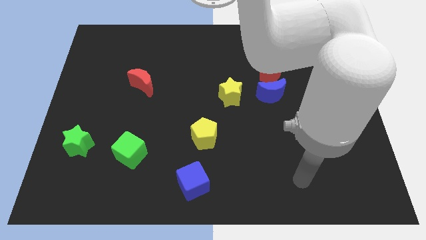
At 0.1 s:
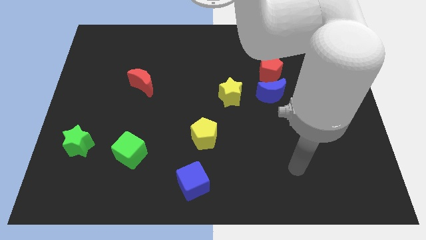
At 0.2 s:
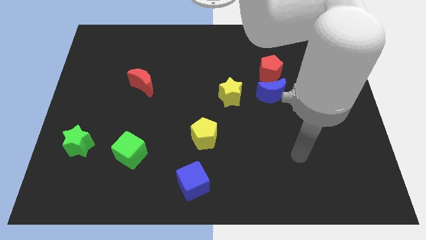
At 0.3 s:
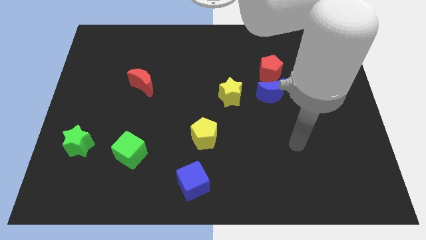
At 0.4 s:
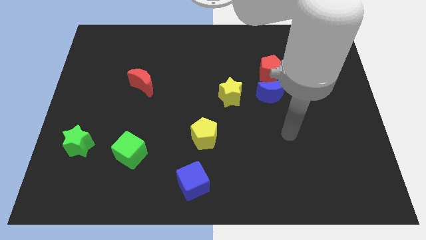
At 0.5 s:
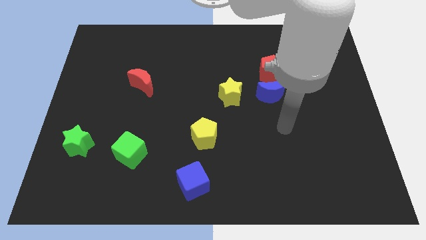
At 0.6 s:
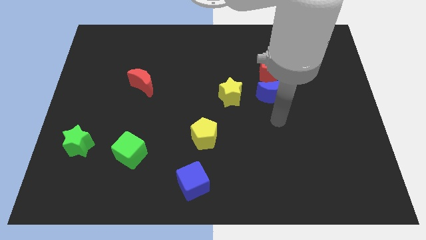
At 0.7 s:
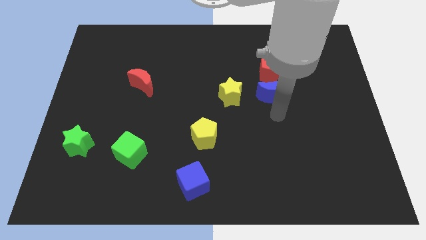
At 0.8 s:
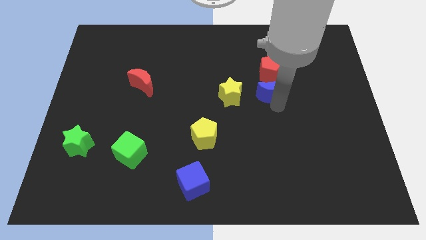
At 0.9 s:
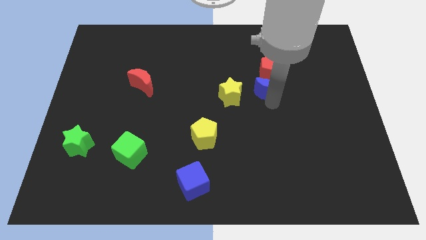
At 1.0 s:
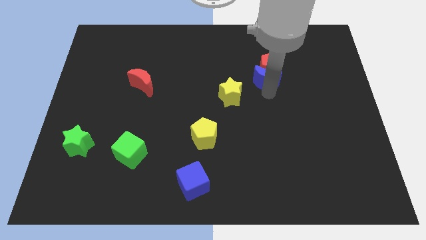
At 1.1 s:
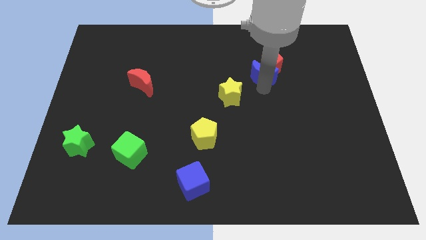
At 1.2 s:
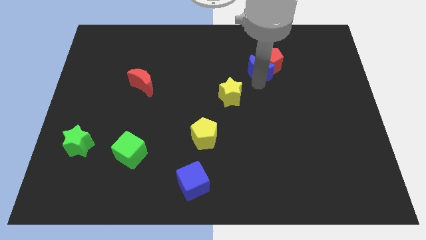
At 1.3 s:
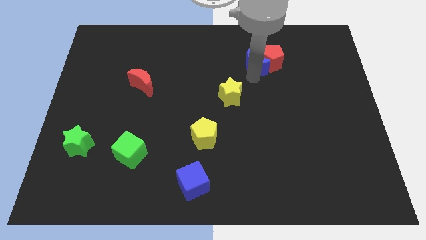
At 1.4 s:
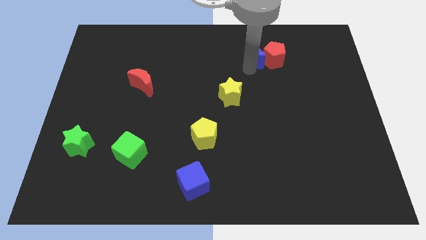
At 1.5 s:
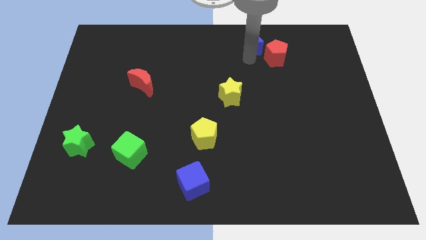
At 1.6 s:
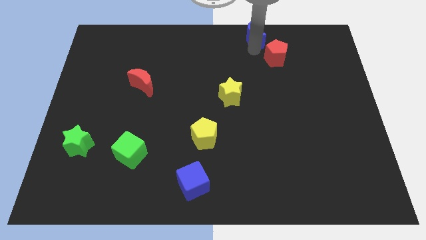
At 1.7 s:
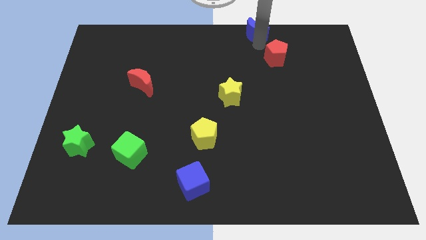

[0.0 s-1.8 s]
separate the red pentagon from the blue moon

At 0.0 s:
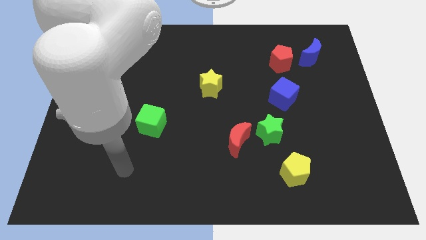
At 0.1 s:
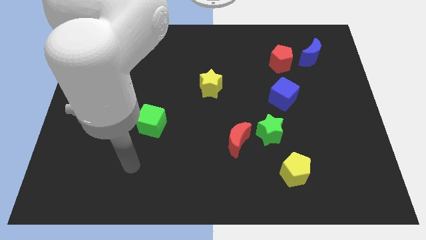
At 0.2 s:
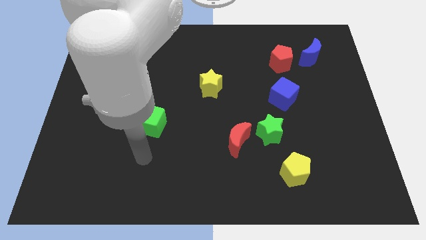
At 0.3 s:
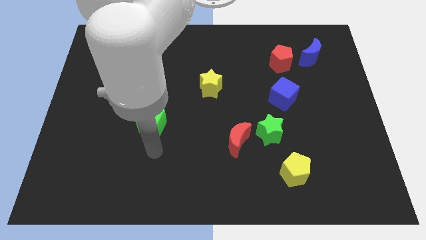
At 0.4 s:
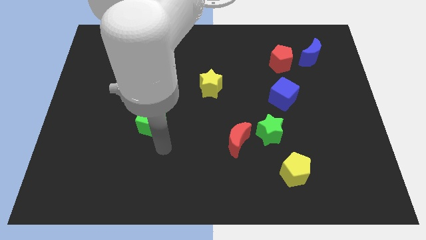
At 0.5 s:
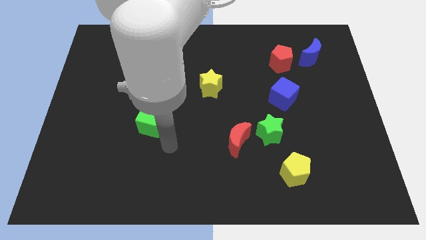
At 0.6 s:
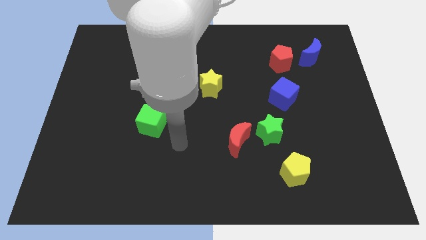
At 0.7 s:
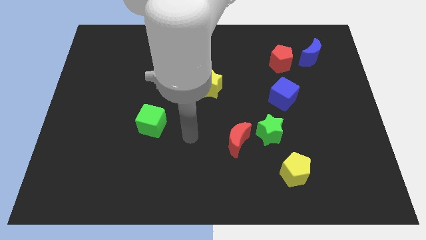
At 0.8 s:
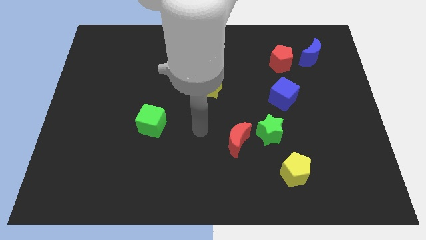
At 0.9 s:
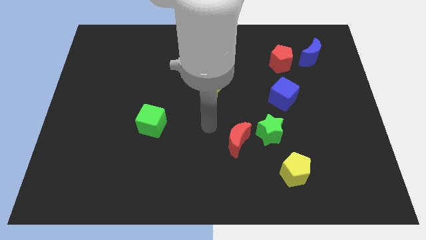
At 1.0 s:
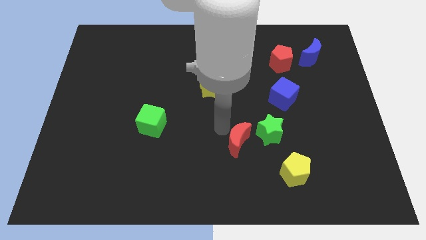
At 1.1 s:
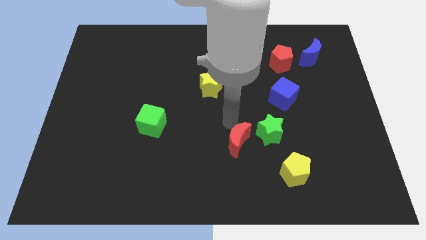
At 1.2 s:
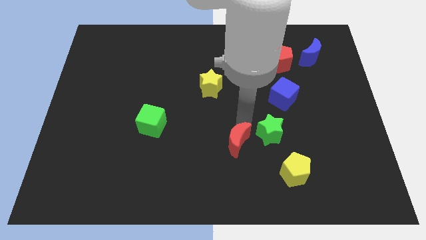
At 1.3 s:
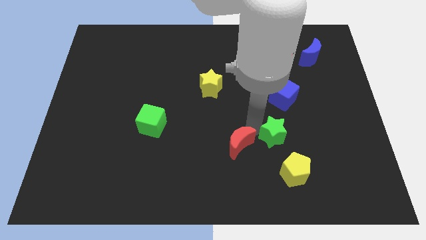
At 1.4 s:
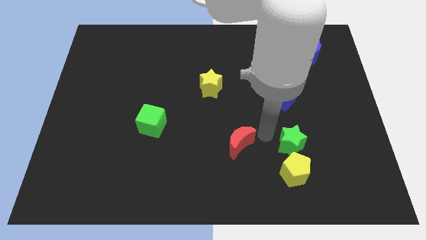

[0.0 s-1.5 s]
move the red moon away from the green star

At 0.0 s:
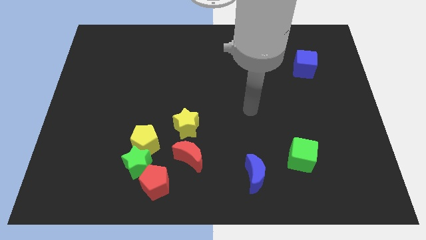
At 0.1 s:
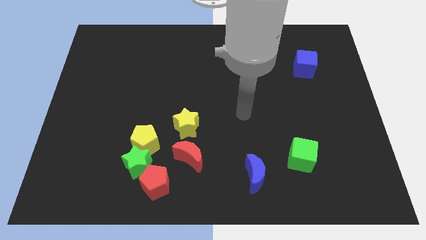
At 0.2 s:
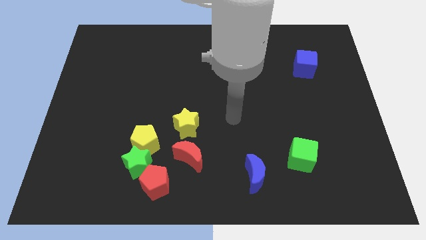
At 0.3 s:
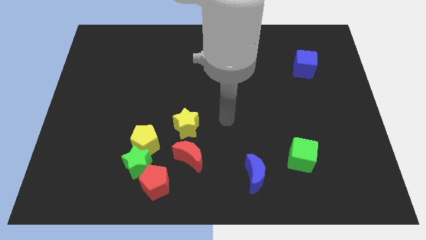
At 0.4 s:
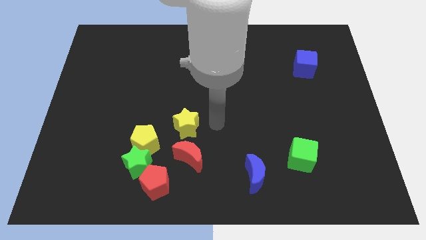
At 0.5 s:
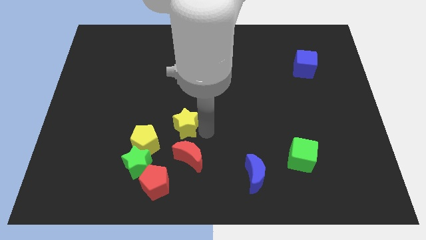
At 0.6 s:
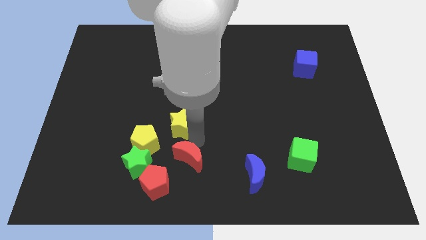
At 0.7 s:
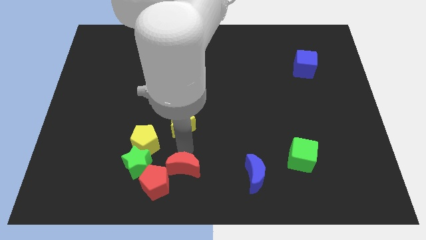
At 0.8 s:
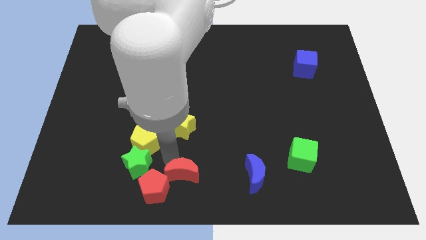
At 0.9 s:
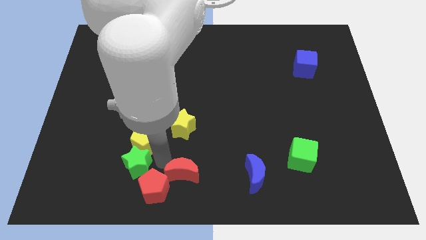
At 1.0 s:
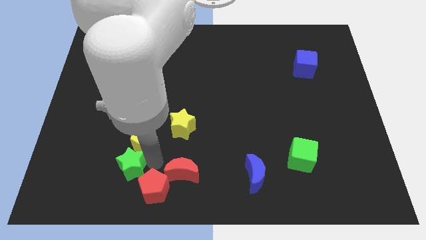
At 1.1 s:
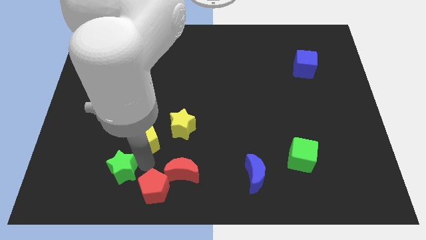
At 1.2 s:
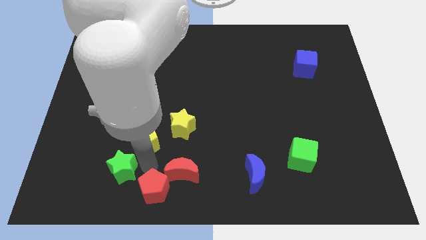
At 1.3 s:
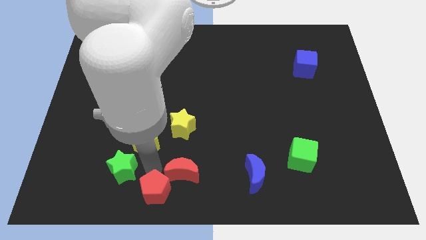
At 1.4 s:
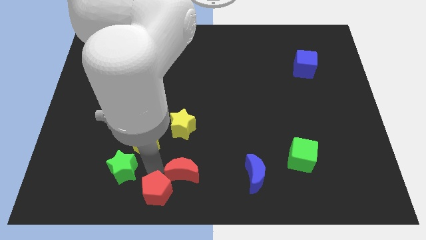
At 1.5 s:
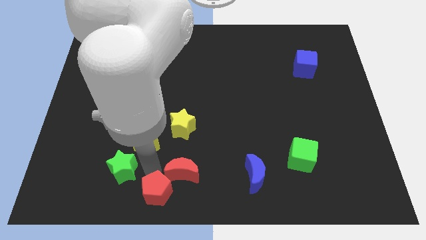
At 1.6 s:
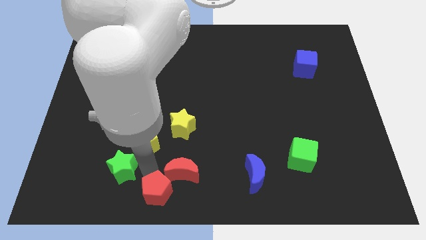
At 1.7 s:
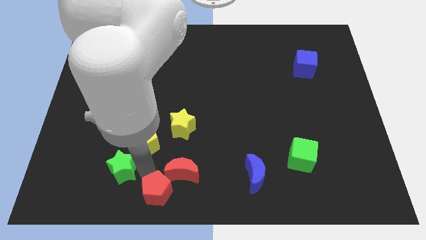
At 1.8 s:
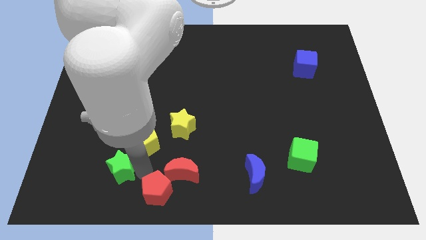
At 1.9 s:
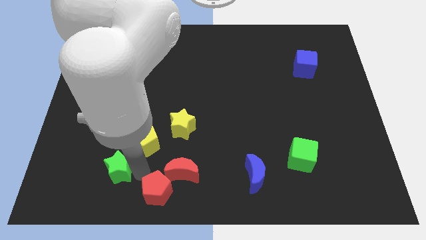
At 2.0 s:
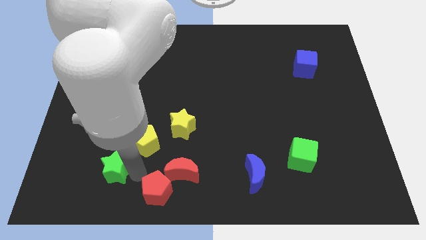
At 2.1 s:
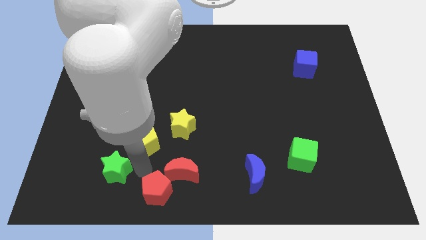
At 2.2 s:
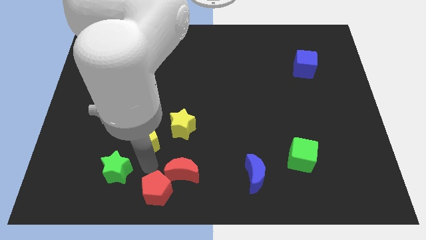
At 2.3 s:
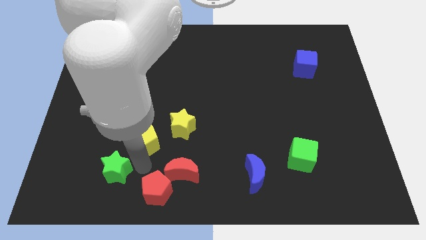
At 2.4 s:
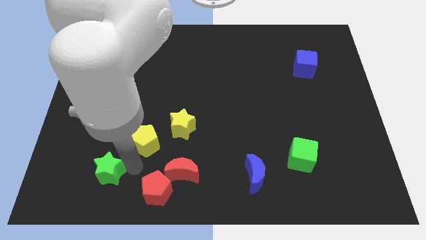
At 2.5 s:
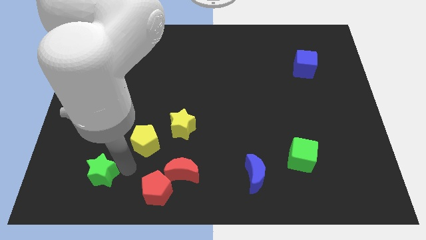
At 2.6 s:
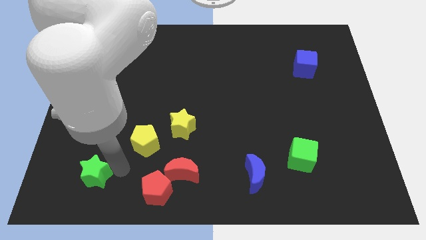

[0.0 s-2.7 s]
pull the green star apart from the yellow pentagon and red pentagon

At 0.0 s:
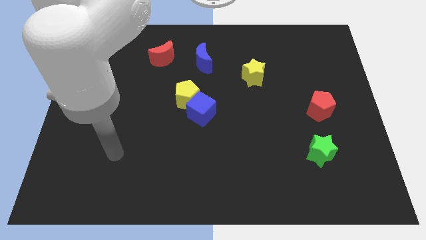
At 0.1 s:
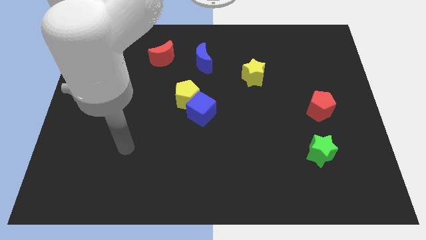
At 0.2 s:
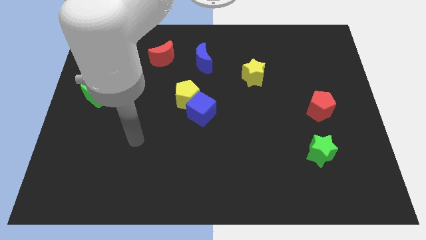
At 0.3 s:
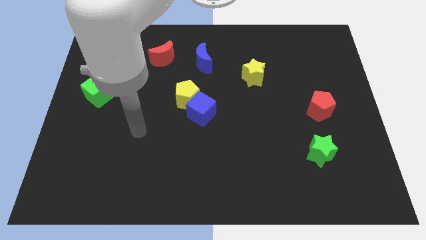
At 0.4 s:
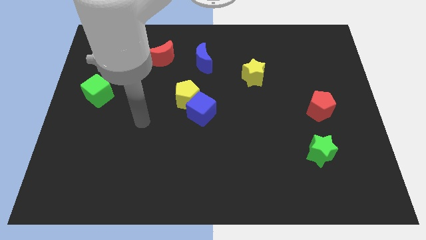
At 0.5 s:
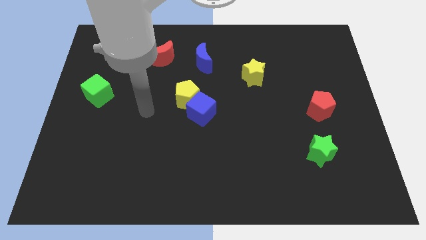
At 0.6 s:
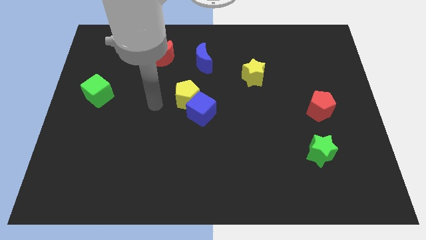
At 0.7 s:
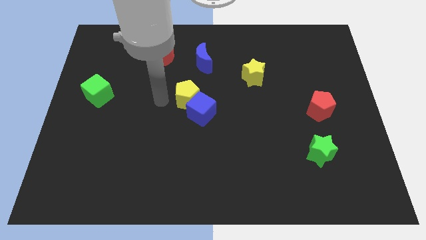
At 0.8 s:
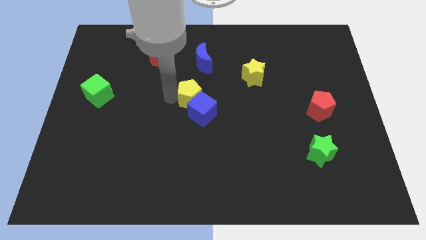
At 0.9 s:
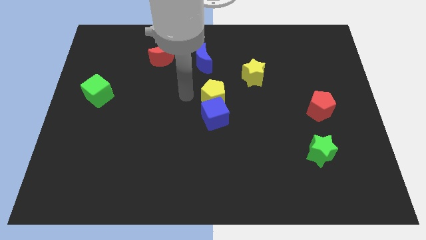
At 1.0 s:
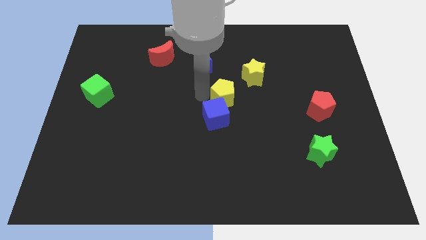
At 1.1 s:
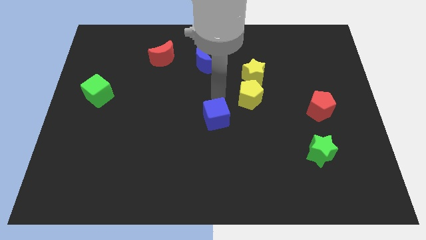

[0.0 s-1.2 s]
separate the blue cube from the yellow pentagon

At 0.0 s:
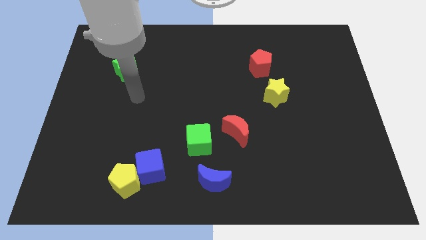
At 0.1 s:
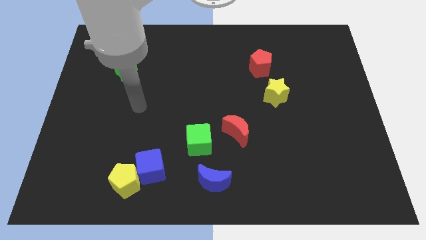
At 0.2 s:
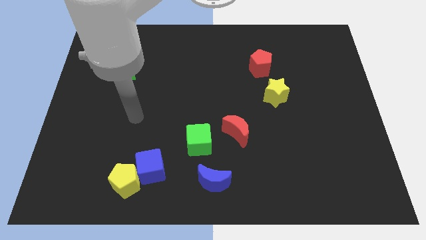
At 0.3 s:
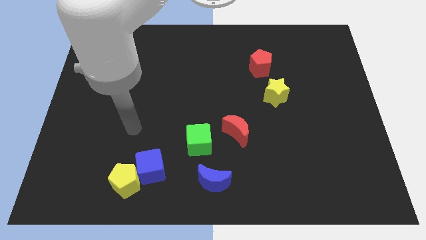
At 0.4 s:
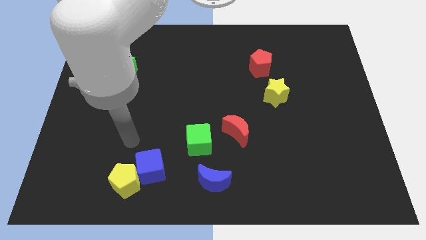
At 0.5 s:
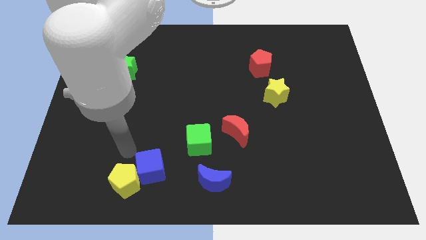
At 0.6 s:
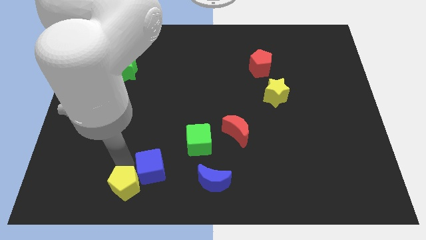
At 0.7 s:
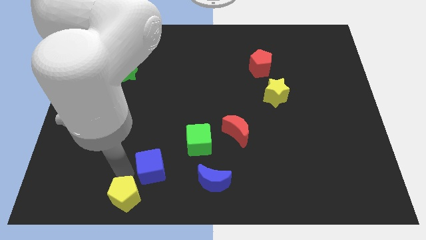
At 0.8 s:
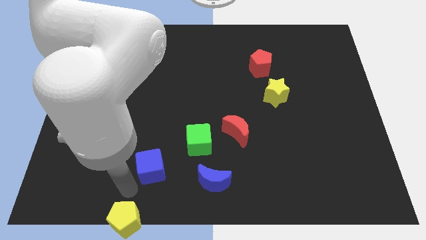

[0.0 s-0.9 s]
move the blue cube away from the yellow pentagon

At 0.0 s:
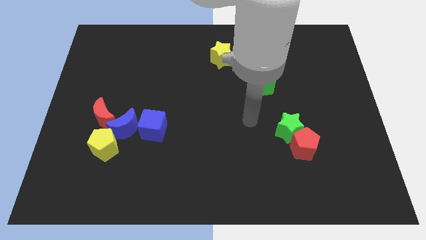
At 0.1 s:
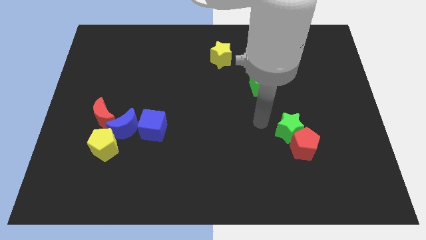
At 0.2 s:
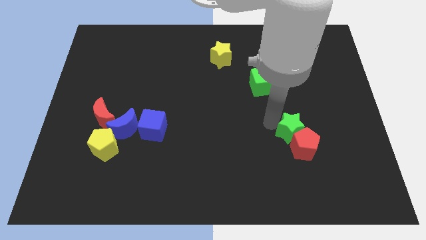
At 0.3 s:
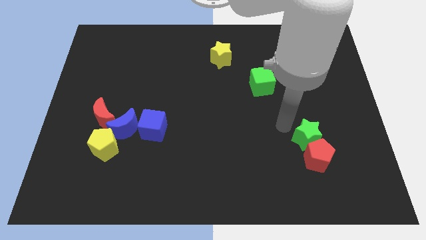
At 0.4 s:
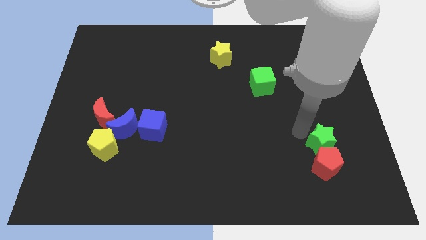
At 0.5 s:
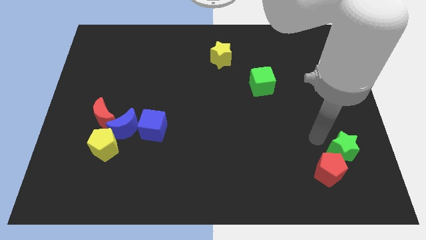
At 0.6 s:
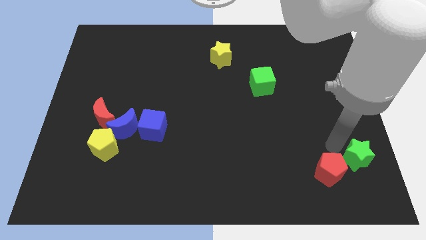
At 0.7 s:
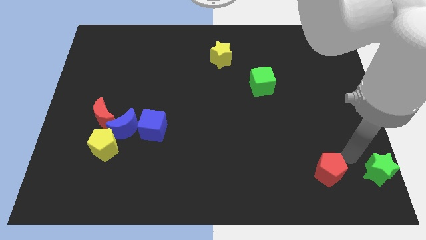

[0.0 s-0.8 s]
move the red pentagon away from the green star

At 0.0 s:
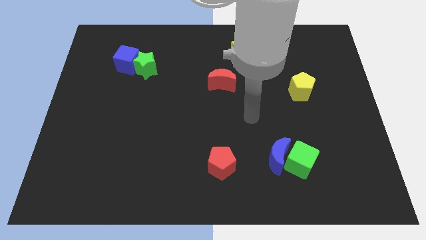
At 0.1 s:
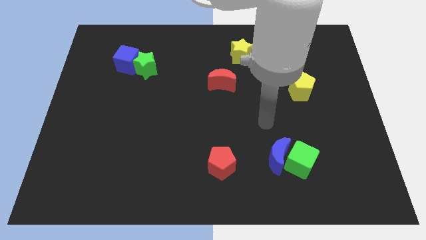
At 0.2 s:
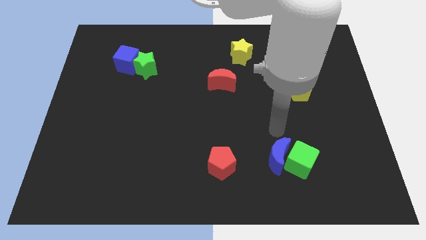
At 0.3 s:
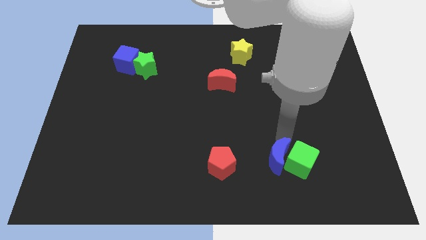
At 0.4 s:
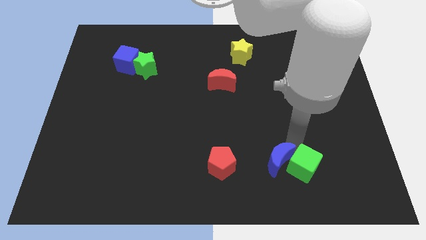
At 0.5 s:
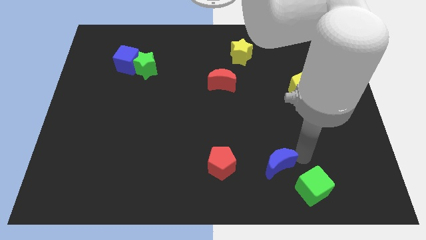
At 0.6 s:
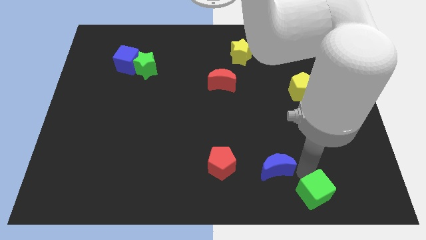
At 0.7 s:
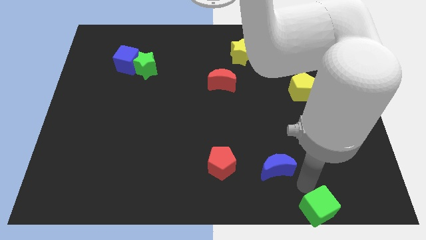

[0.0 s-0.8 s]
separate the blue moon from the green cube
